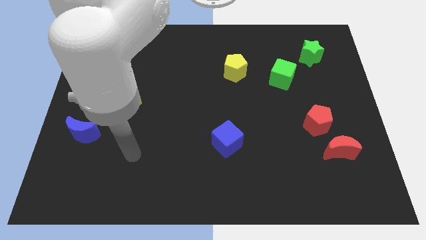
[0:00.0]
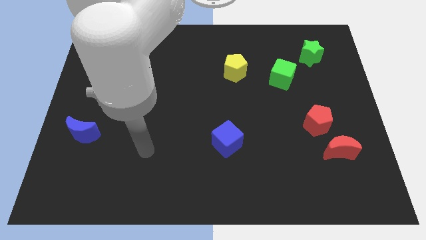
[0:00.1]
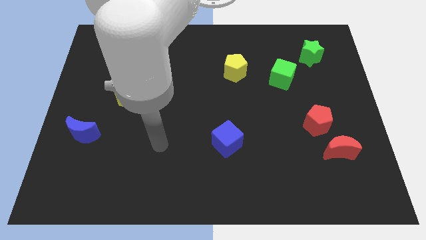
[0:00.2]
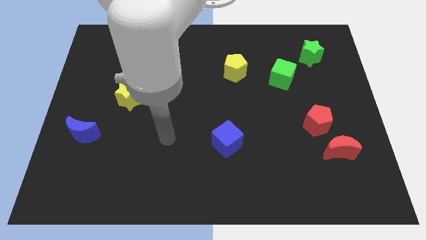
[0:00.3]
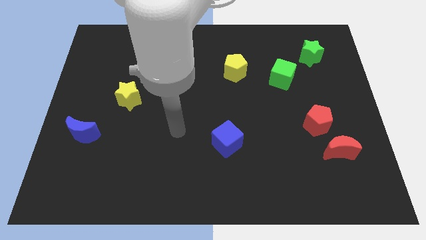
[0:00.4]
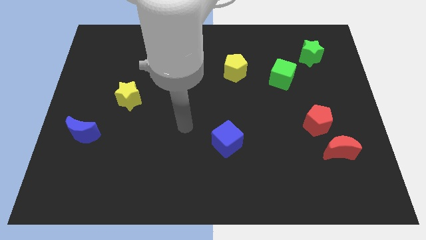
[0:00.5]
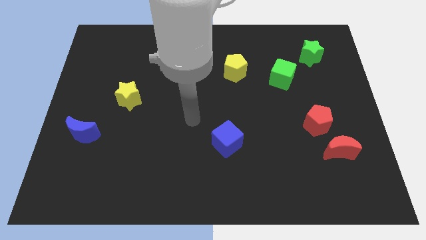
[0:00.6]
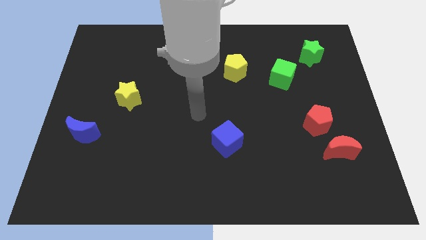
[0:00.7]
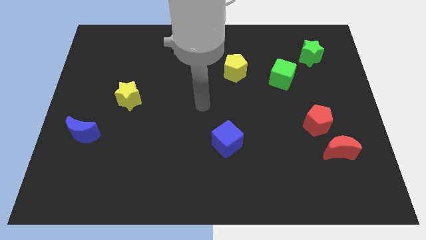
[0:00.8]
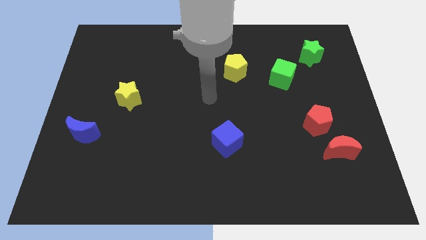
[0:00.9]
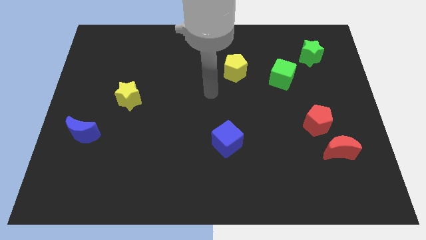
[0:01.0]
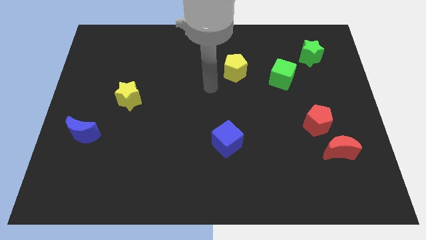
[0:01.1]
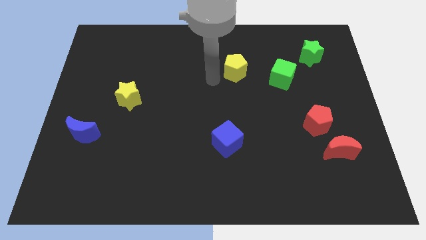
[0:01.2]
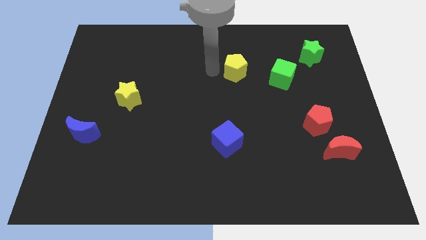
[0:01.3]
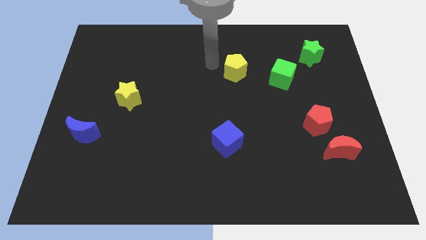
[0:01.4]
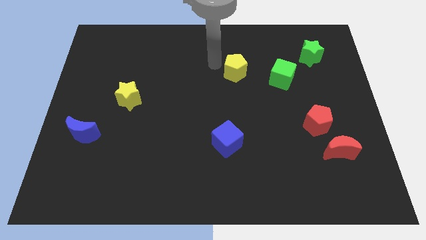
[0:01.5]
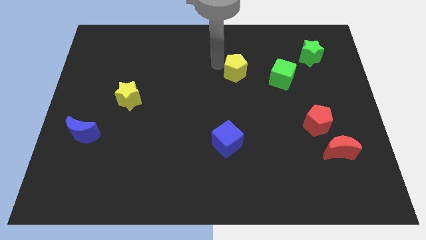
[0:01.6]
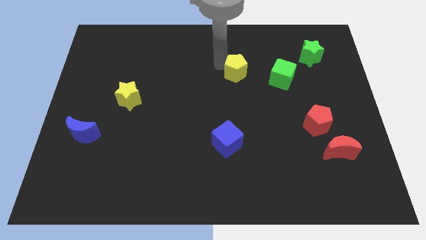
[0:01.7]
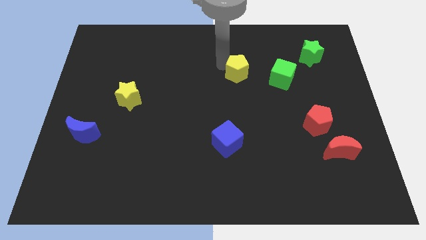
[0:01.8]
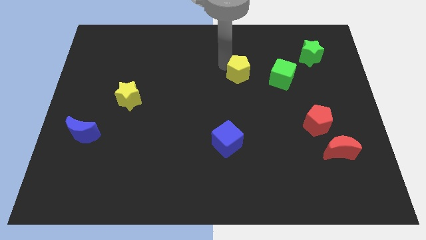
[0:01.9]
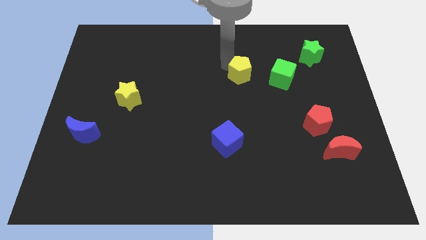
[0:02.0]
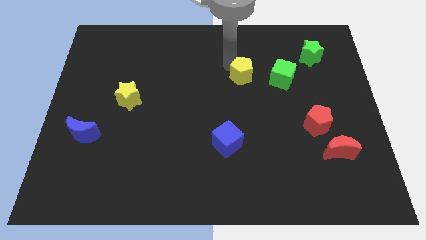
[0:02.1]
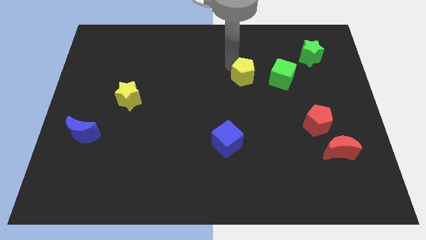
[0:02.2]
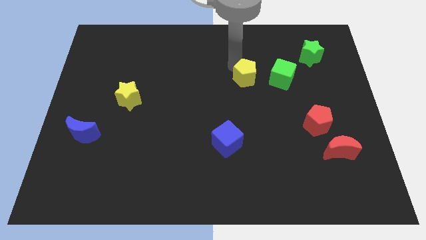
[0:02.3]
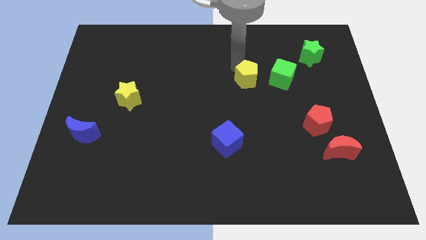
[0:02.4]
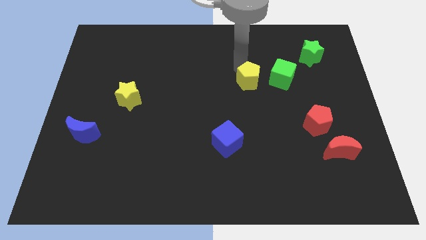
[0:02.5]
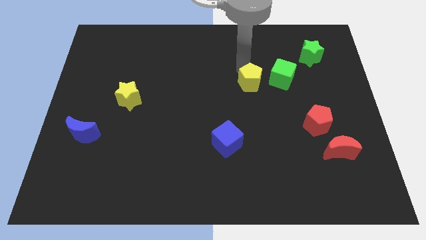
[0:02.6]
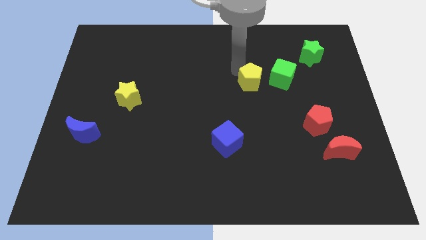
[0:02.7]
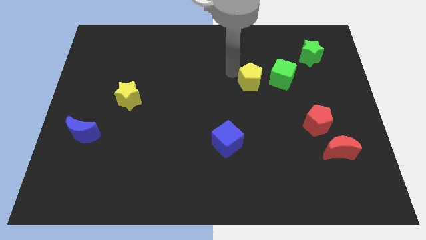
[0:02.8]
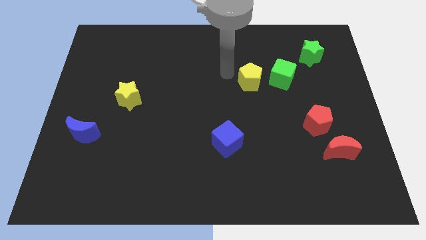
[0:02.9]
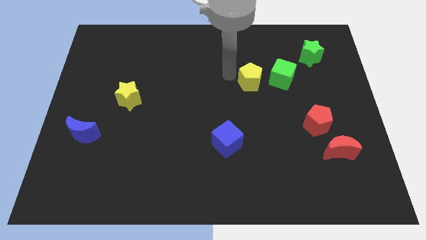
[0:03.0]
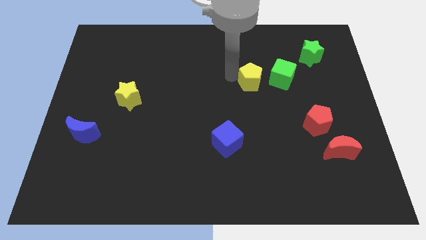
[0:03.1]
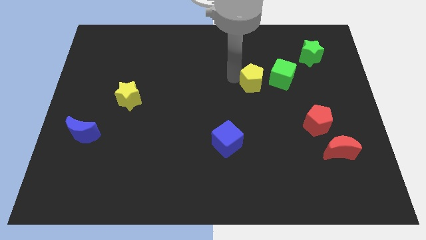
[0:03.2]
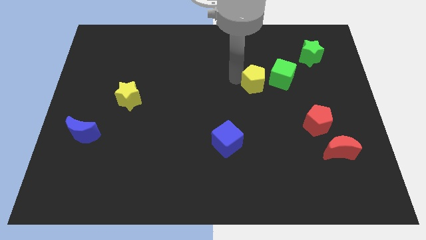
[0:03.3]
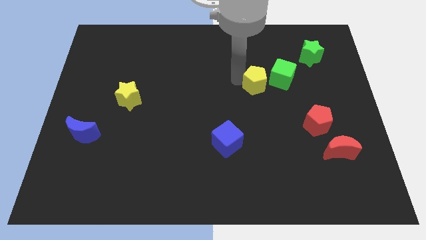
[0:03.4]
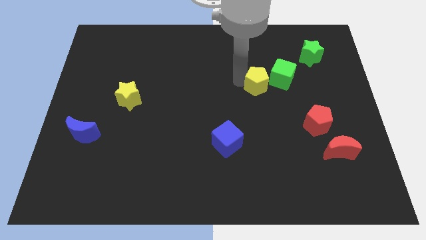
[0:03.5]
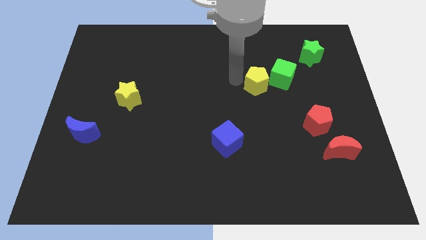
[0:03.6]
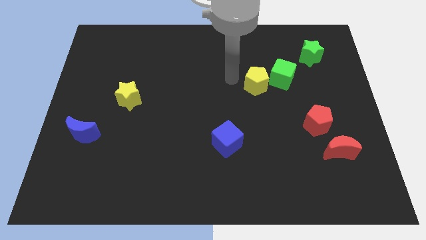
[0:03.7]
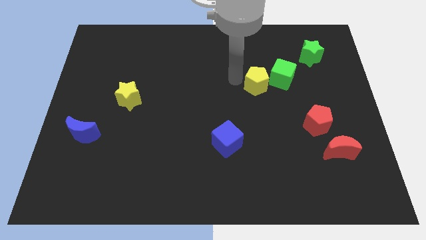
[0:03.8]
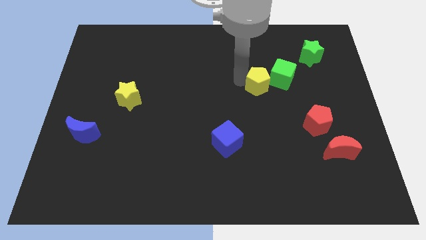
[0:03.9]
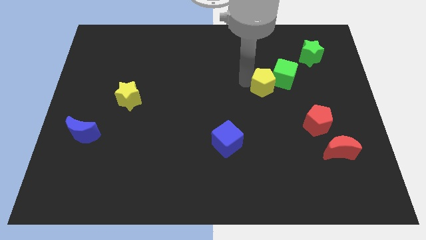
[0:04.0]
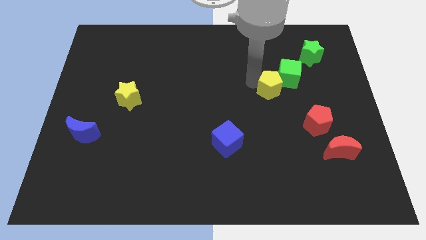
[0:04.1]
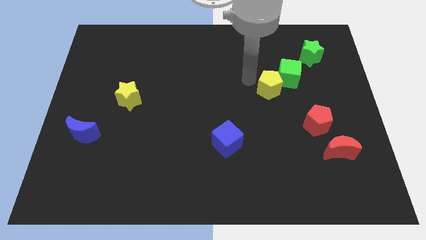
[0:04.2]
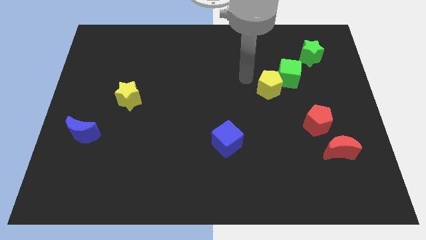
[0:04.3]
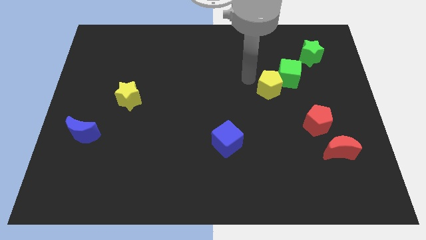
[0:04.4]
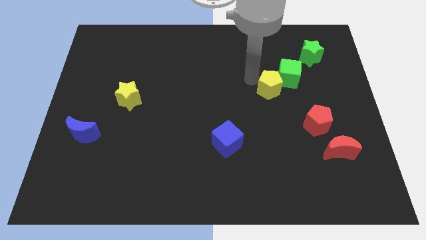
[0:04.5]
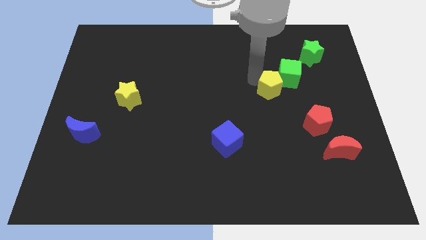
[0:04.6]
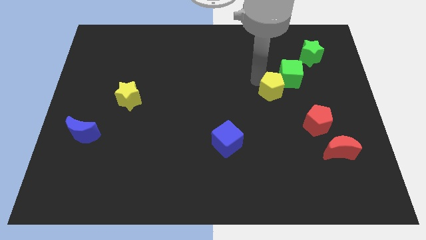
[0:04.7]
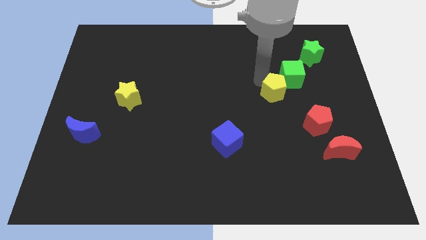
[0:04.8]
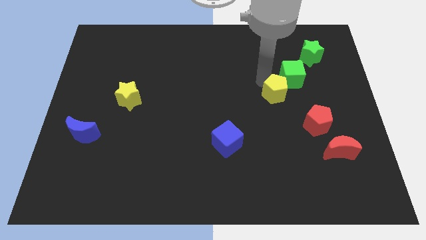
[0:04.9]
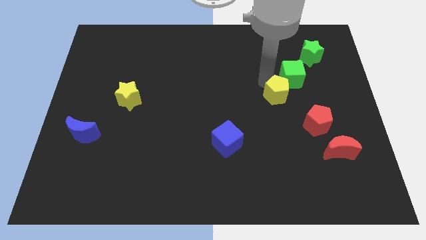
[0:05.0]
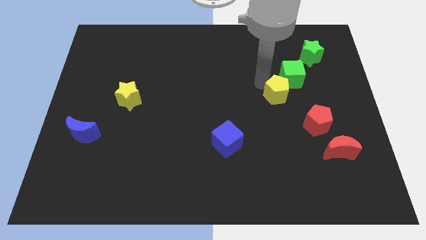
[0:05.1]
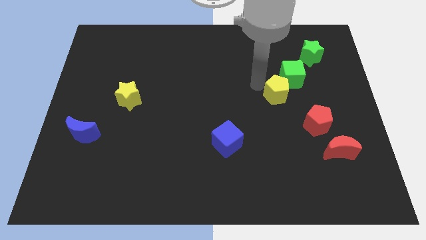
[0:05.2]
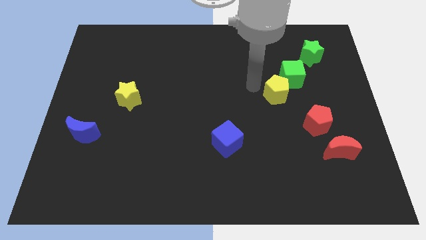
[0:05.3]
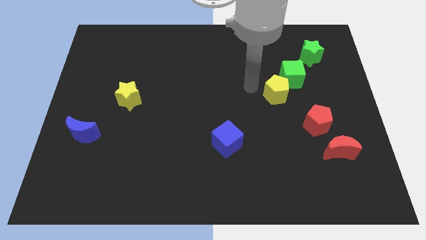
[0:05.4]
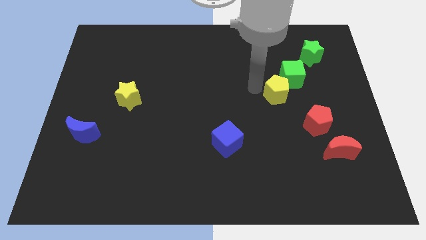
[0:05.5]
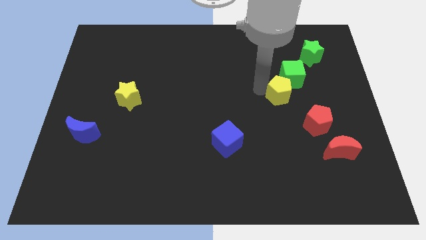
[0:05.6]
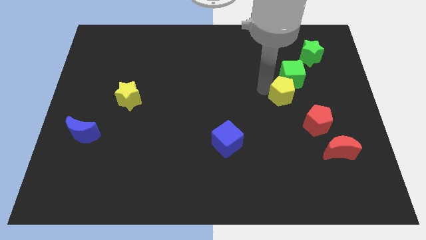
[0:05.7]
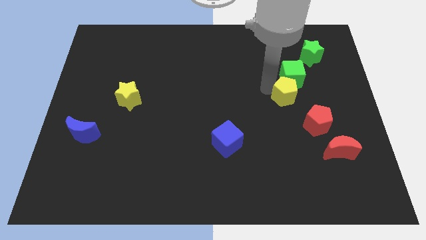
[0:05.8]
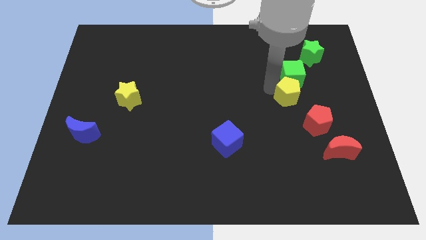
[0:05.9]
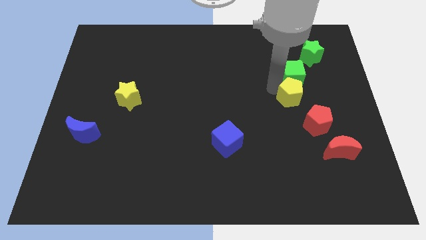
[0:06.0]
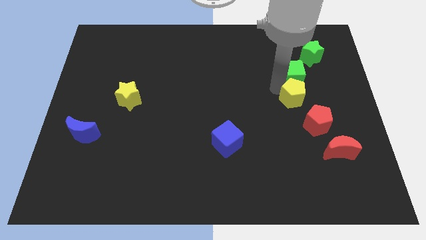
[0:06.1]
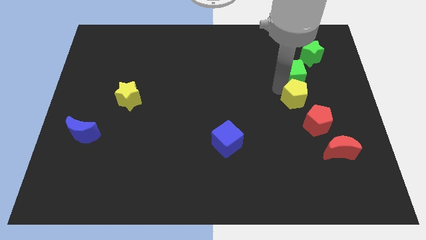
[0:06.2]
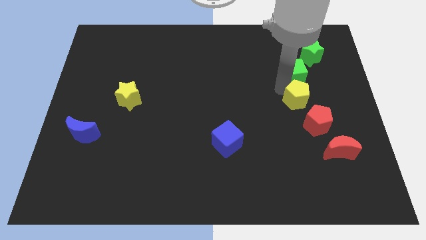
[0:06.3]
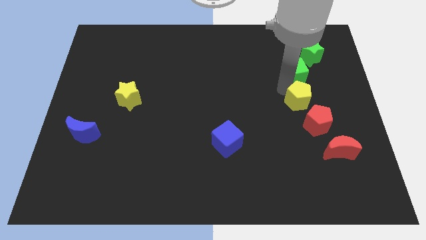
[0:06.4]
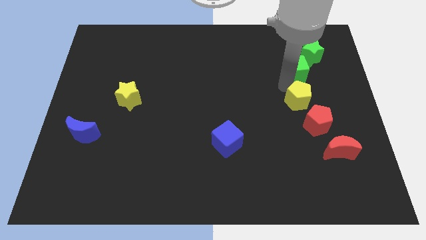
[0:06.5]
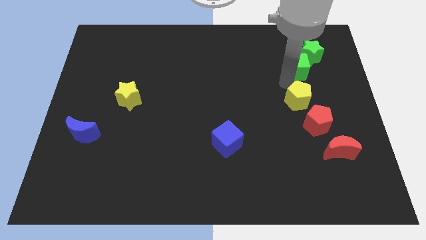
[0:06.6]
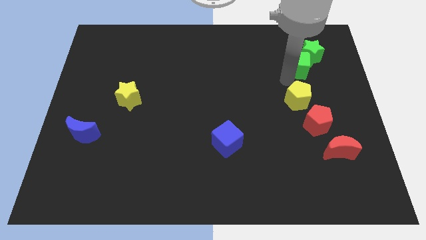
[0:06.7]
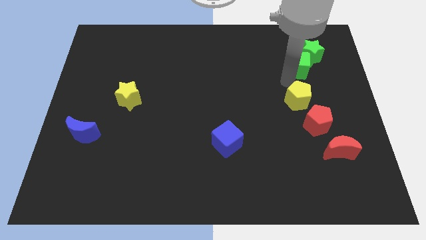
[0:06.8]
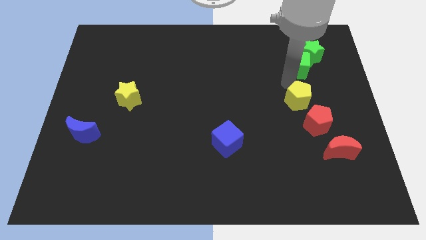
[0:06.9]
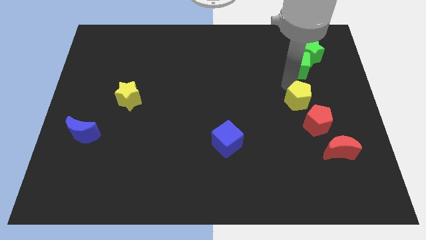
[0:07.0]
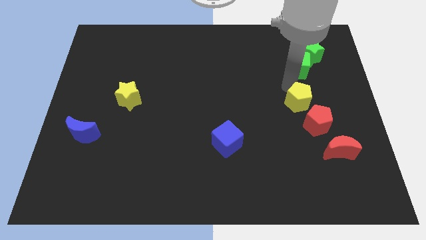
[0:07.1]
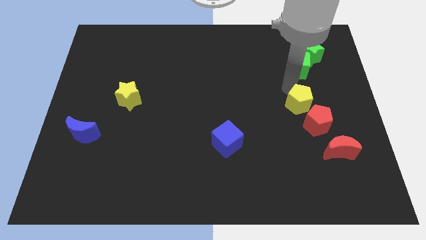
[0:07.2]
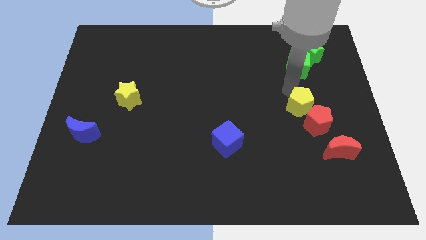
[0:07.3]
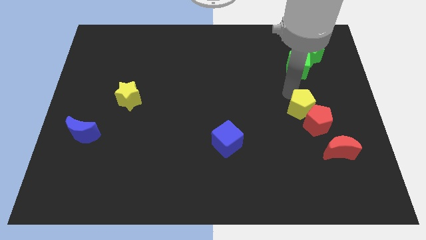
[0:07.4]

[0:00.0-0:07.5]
slide the yellow pentagon towards the red pentagon
